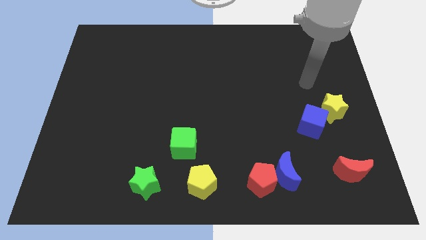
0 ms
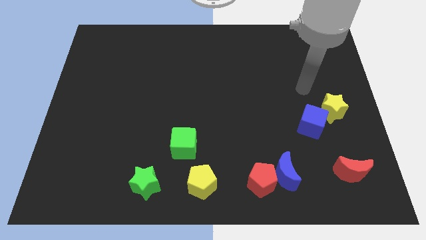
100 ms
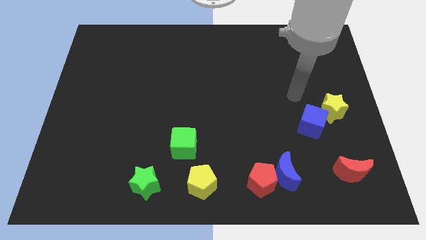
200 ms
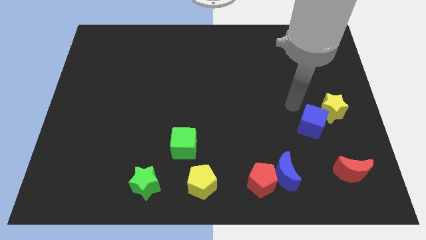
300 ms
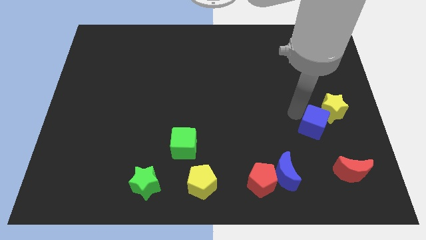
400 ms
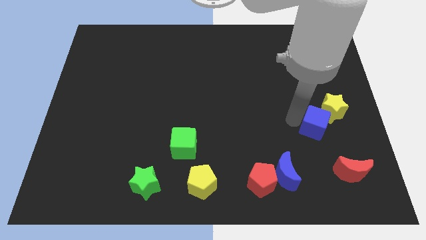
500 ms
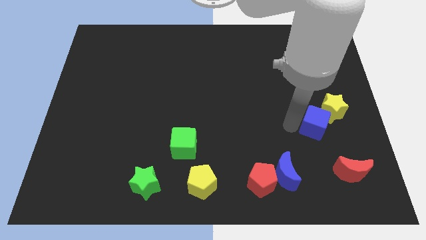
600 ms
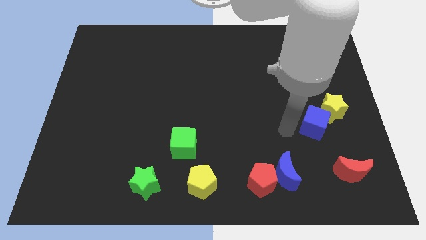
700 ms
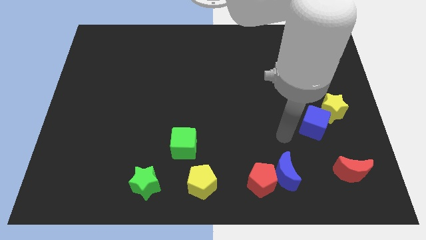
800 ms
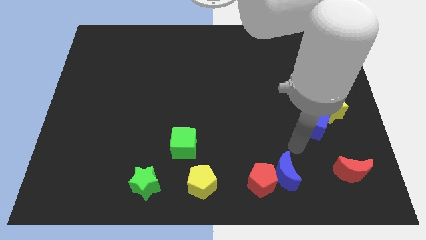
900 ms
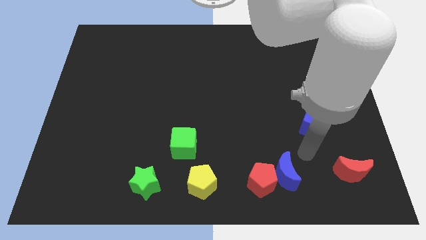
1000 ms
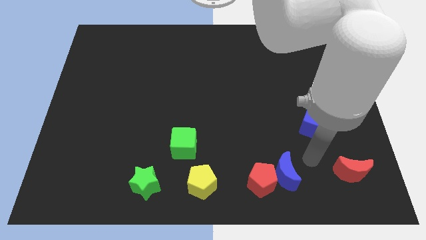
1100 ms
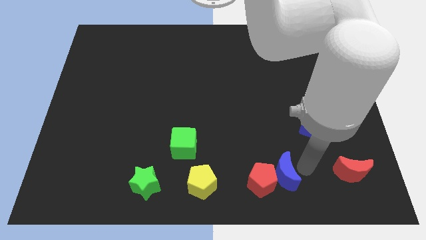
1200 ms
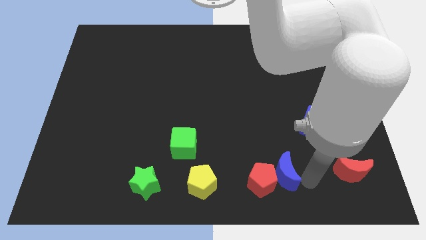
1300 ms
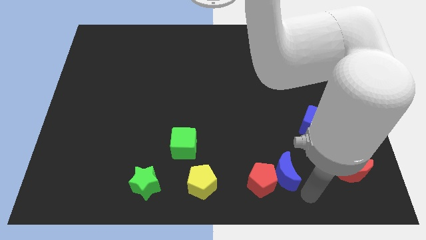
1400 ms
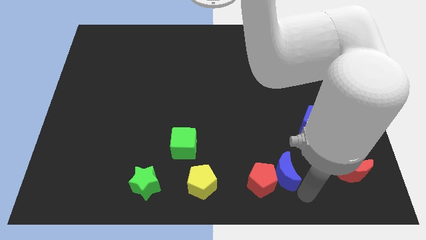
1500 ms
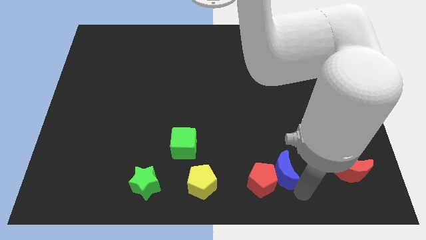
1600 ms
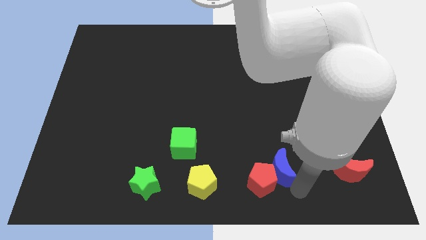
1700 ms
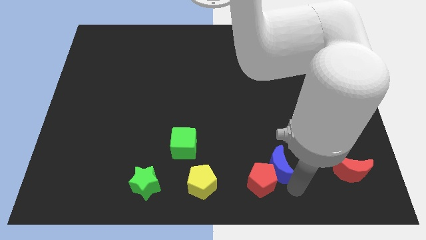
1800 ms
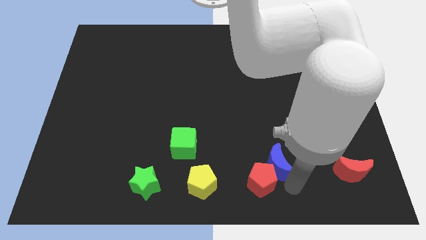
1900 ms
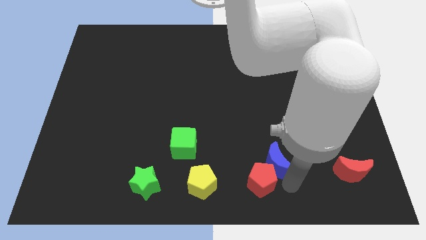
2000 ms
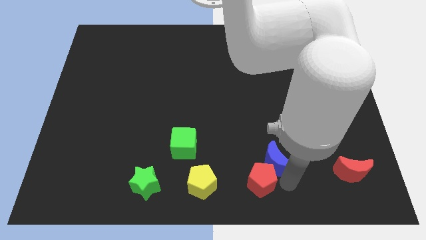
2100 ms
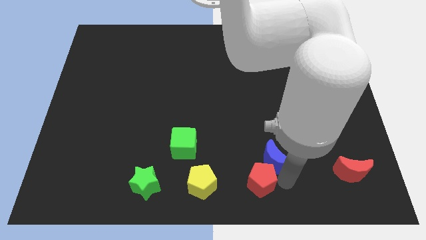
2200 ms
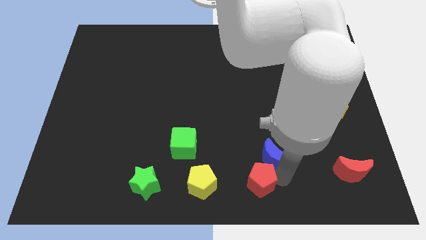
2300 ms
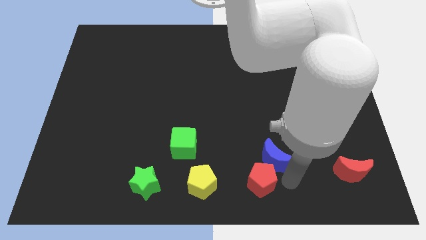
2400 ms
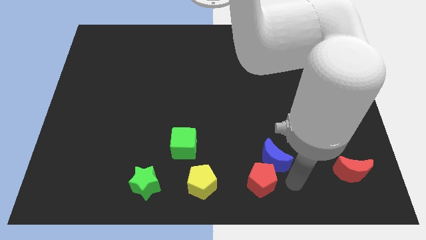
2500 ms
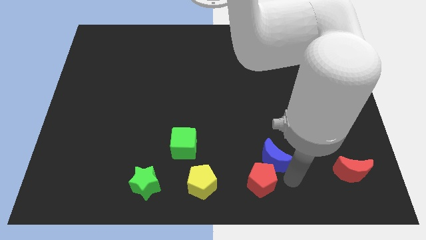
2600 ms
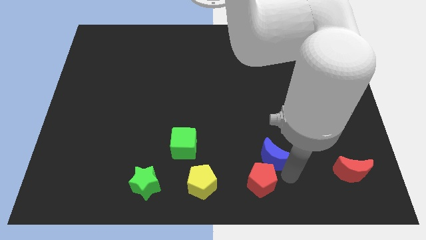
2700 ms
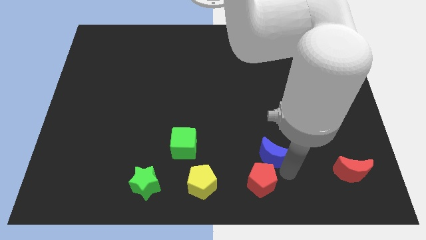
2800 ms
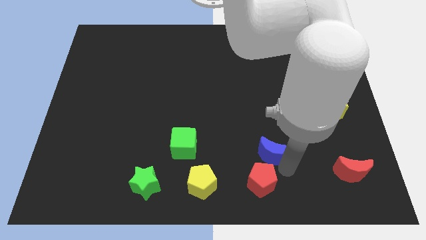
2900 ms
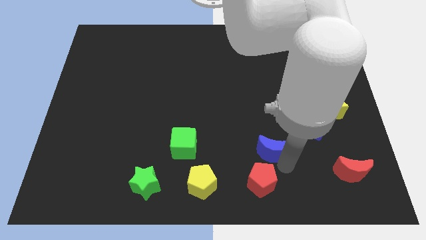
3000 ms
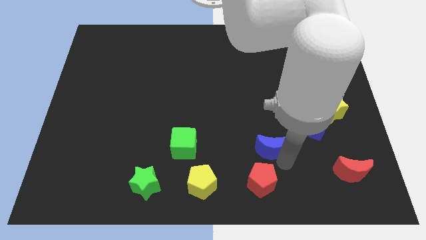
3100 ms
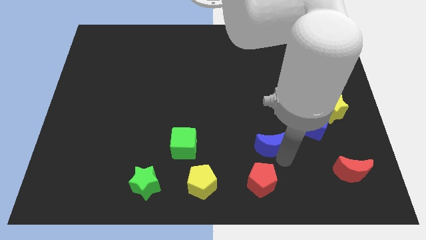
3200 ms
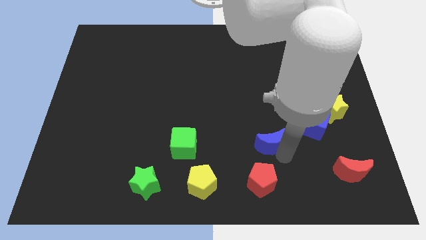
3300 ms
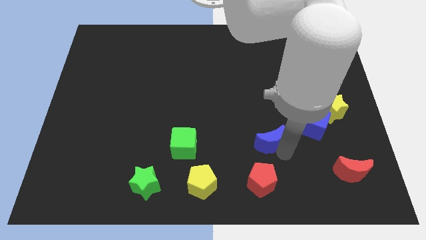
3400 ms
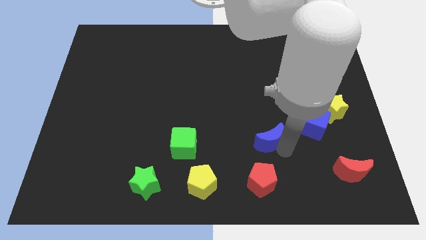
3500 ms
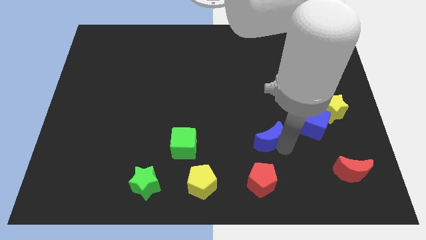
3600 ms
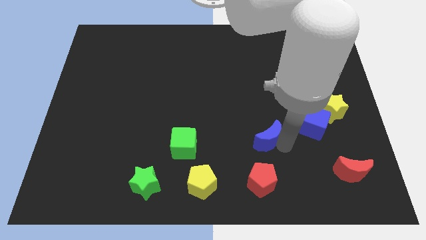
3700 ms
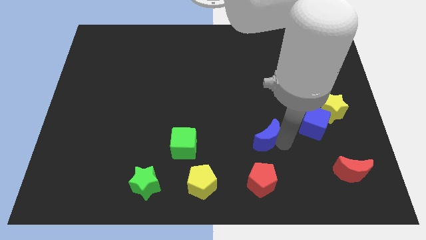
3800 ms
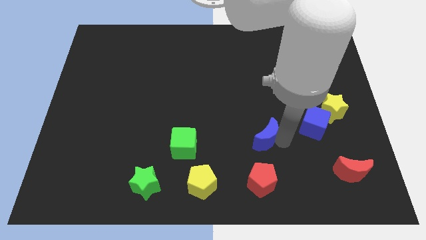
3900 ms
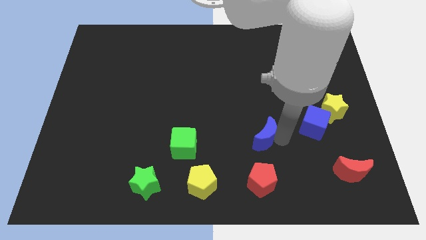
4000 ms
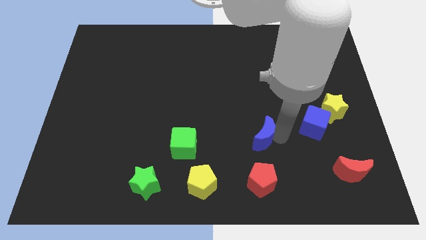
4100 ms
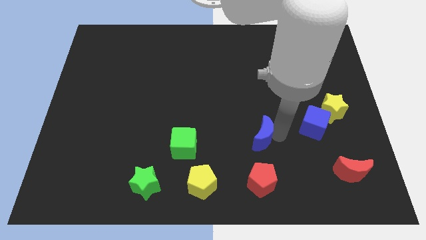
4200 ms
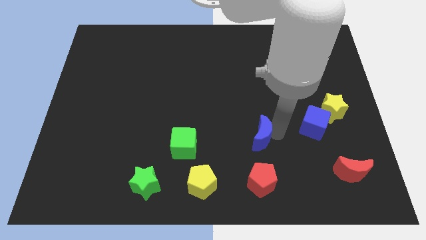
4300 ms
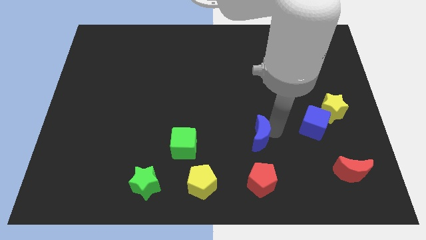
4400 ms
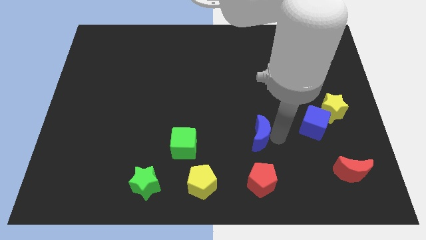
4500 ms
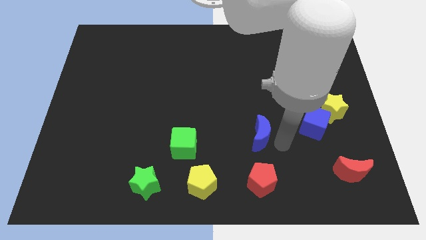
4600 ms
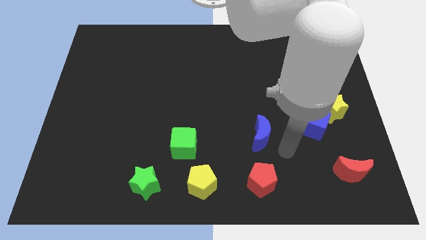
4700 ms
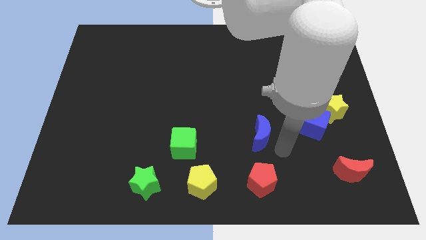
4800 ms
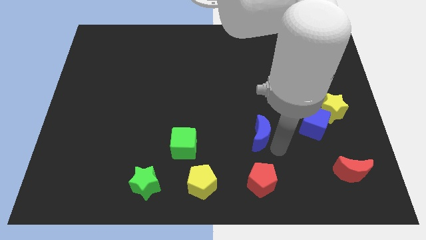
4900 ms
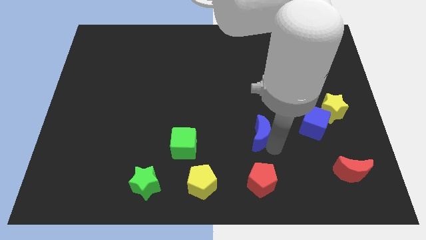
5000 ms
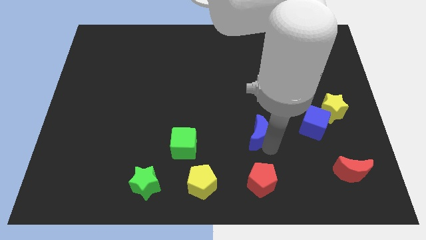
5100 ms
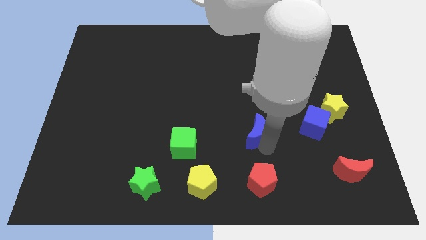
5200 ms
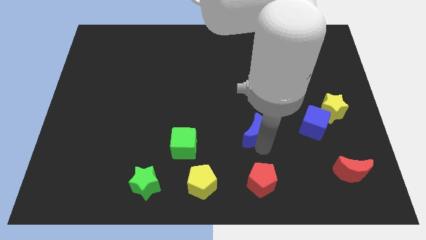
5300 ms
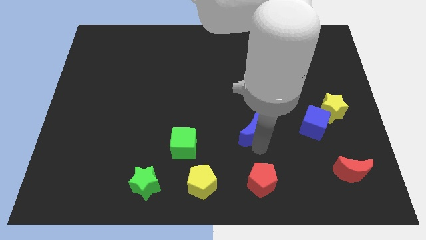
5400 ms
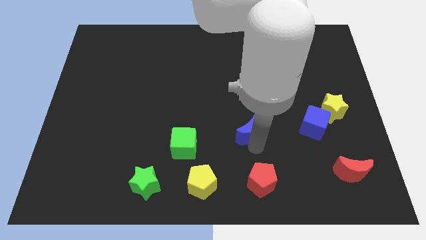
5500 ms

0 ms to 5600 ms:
push the blue moon to the middle
